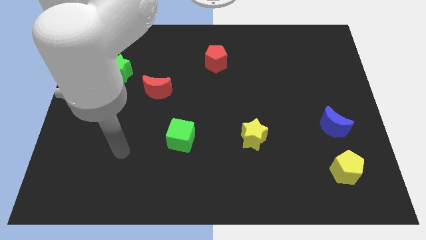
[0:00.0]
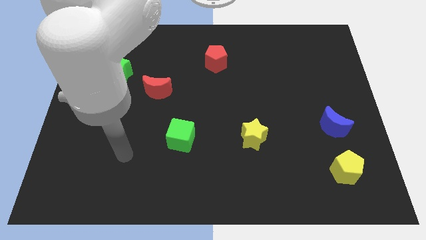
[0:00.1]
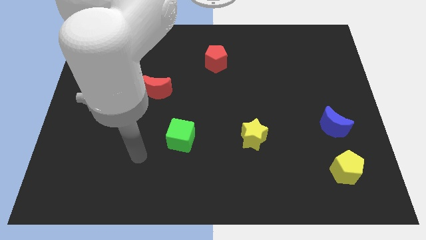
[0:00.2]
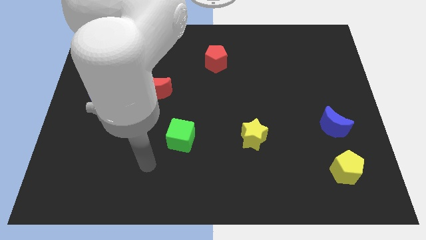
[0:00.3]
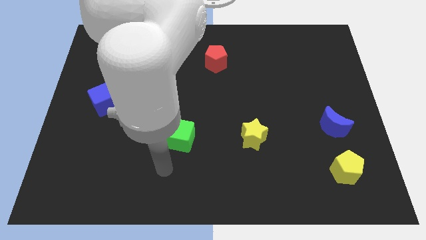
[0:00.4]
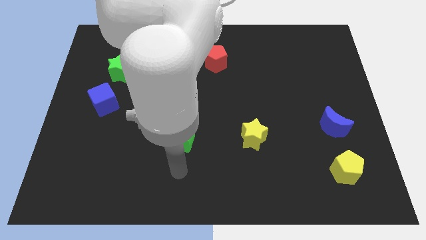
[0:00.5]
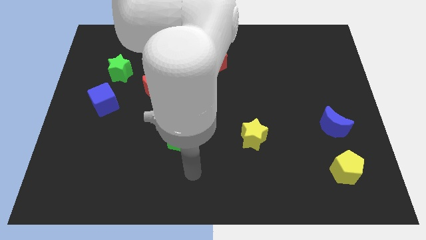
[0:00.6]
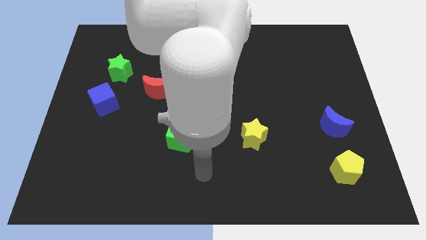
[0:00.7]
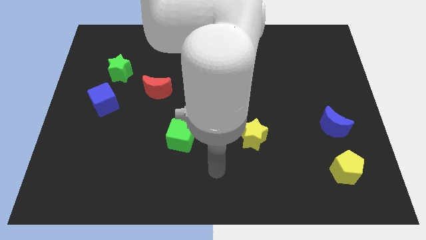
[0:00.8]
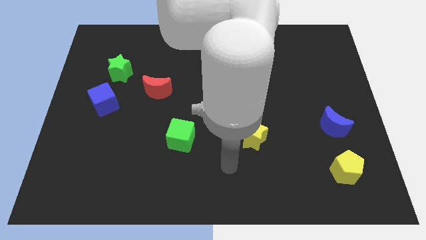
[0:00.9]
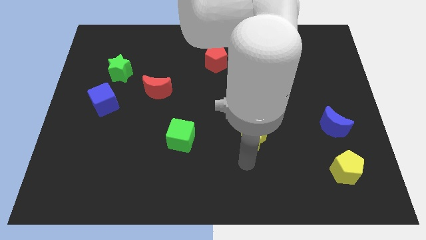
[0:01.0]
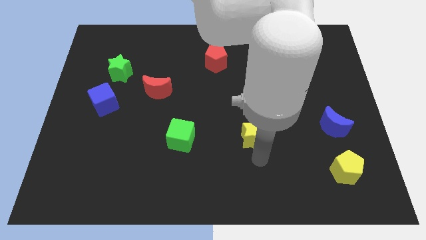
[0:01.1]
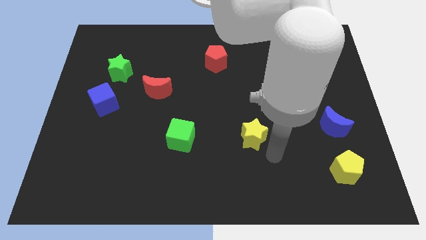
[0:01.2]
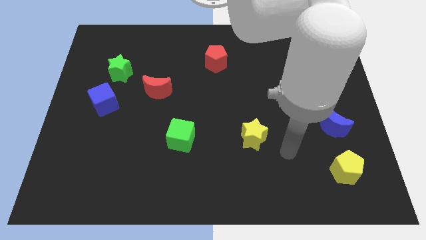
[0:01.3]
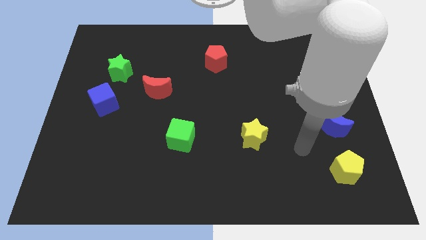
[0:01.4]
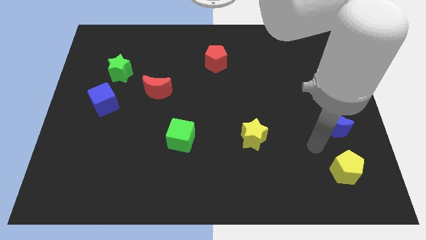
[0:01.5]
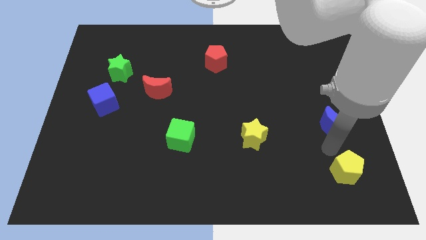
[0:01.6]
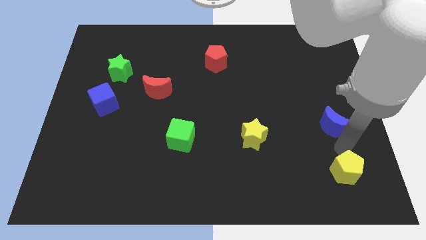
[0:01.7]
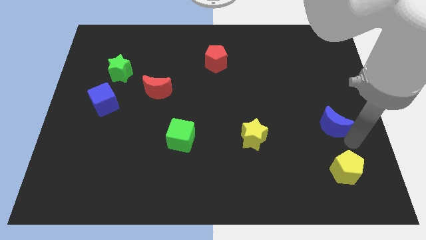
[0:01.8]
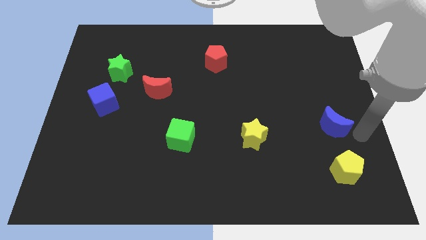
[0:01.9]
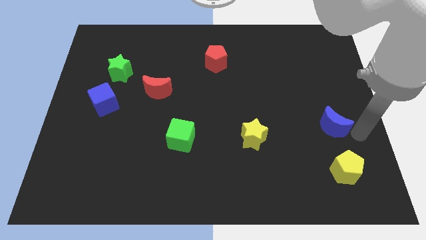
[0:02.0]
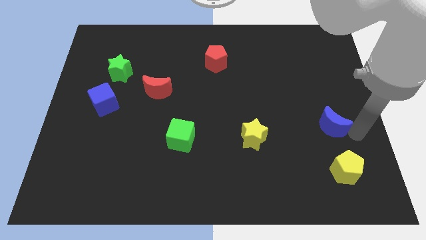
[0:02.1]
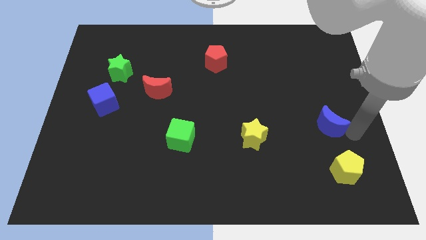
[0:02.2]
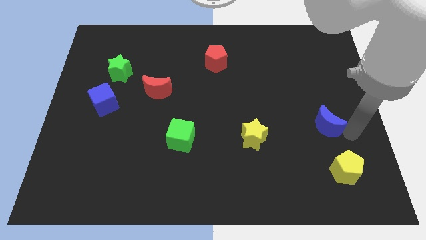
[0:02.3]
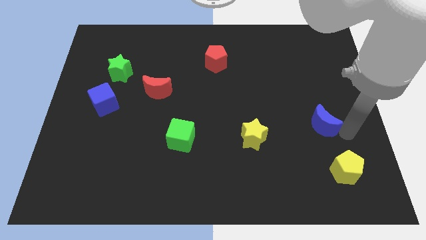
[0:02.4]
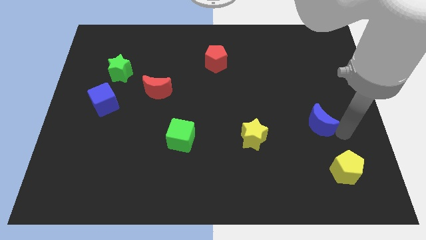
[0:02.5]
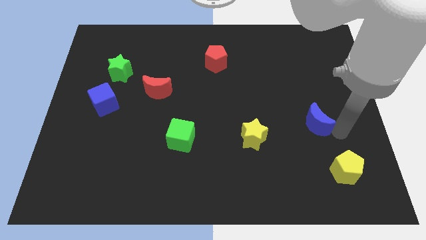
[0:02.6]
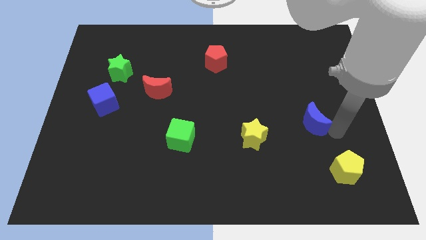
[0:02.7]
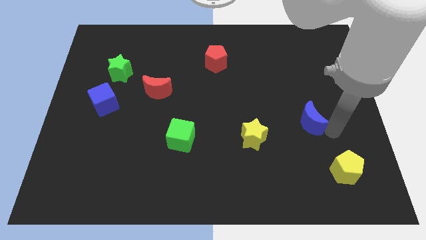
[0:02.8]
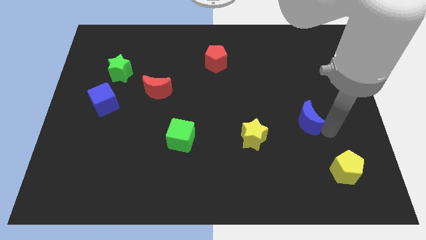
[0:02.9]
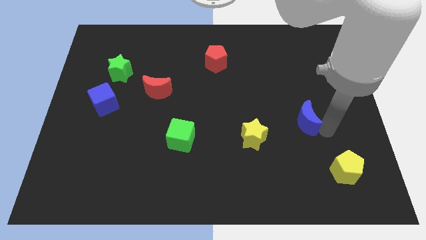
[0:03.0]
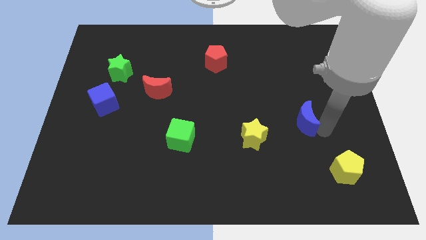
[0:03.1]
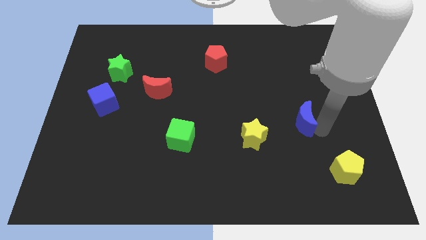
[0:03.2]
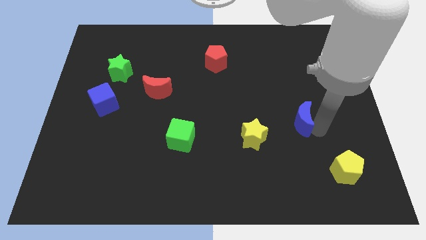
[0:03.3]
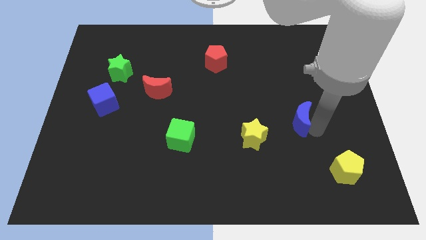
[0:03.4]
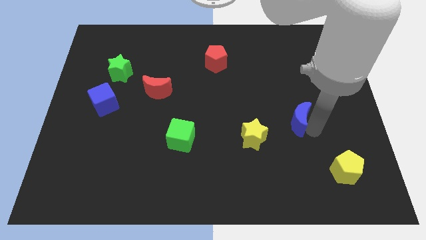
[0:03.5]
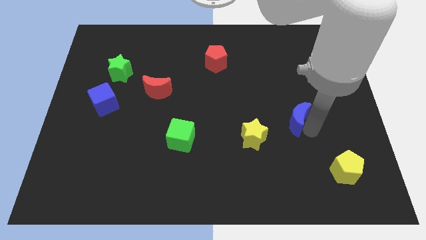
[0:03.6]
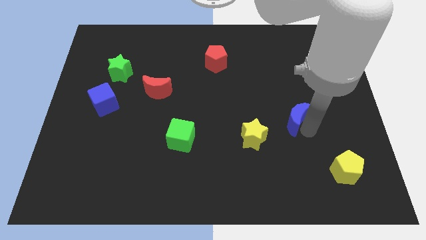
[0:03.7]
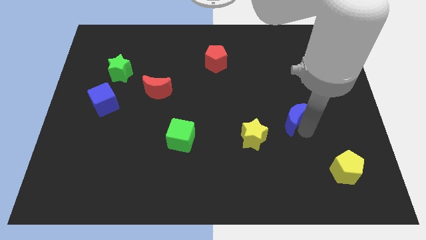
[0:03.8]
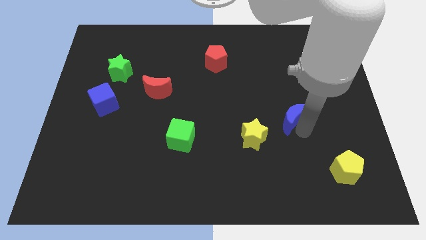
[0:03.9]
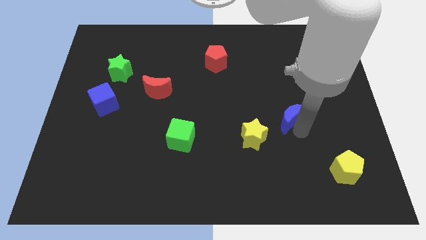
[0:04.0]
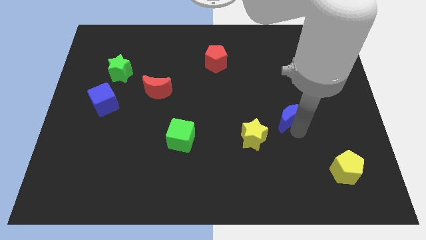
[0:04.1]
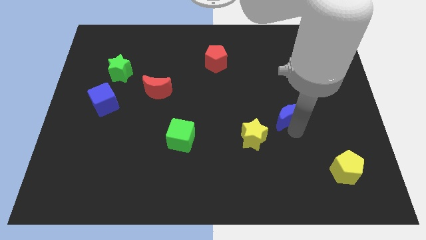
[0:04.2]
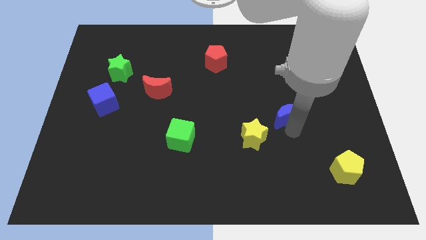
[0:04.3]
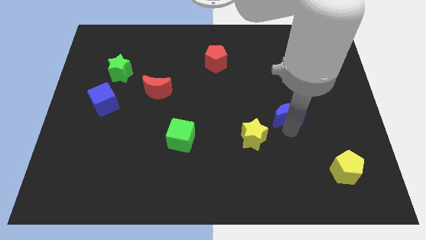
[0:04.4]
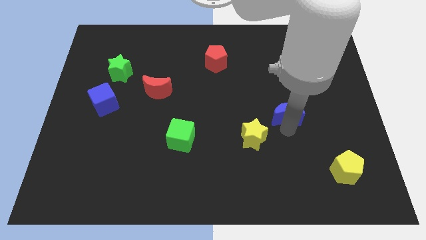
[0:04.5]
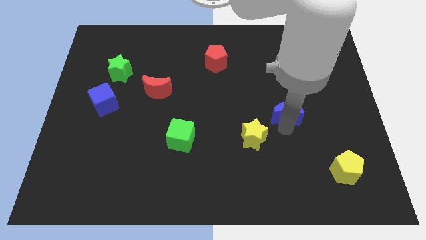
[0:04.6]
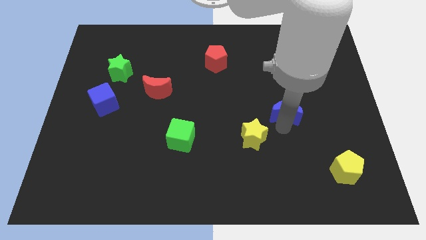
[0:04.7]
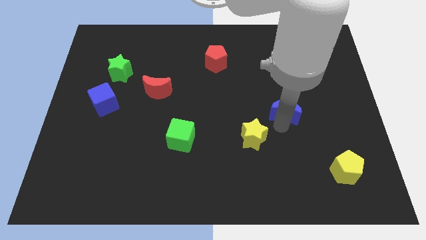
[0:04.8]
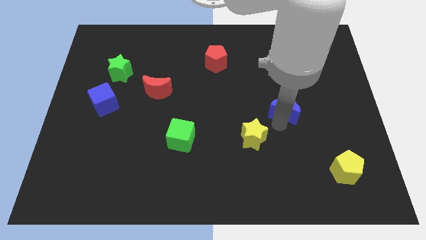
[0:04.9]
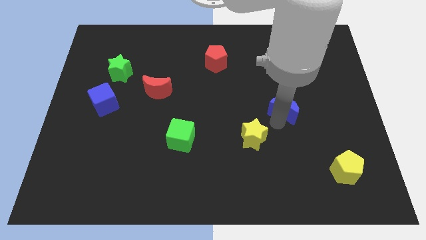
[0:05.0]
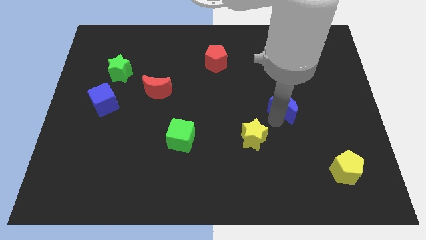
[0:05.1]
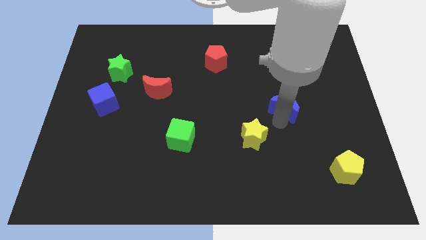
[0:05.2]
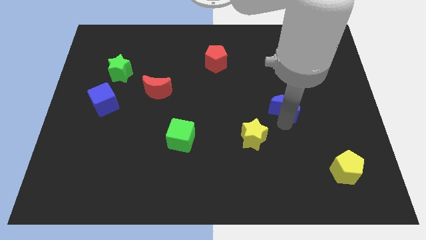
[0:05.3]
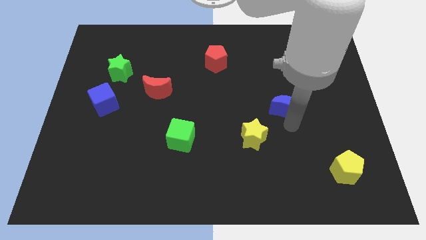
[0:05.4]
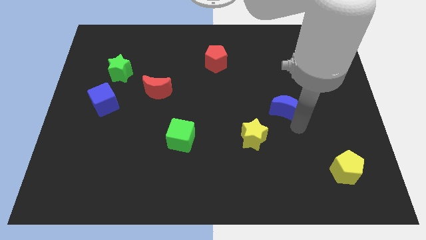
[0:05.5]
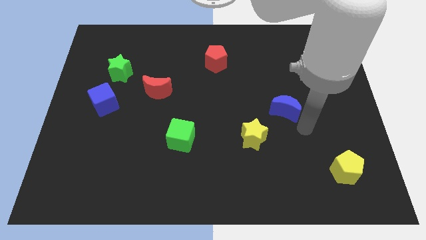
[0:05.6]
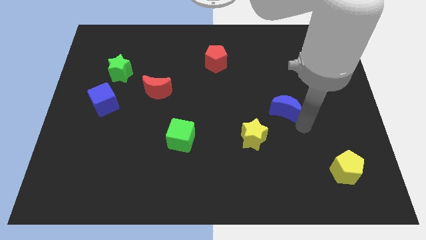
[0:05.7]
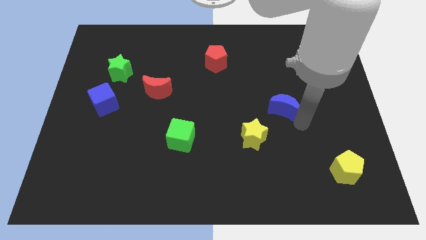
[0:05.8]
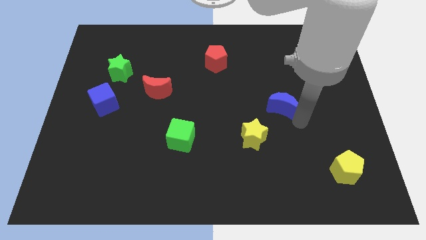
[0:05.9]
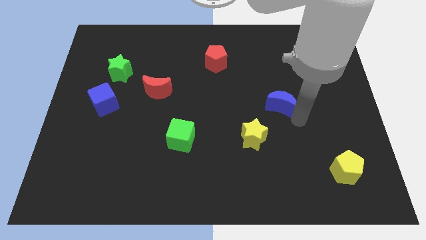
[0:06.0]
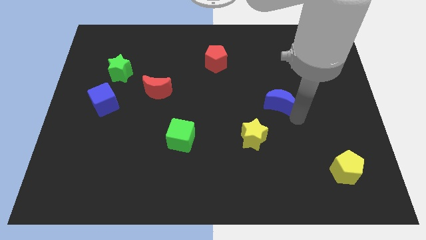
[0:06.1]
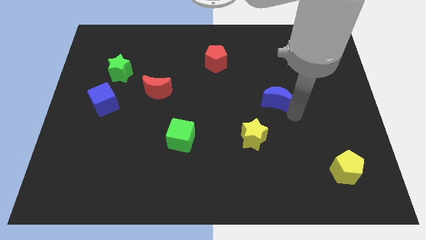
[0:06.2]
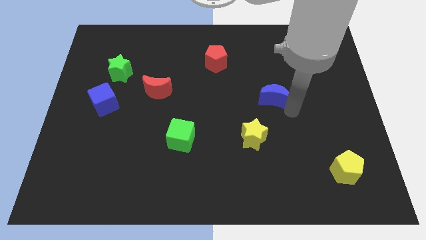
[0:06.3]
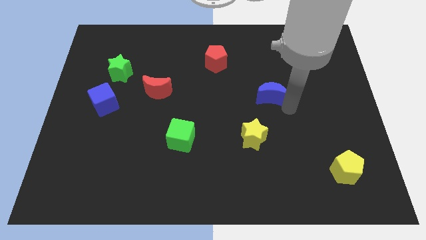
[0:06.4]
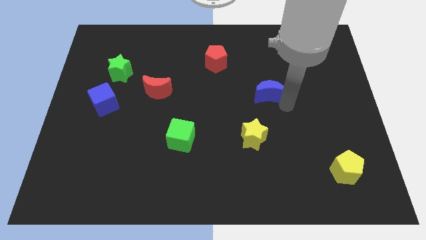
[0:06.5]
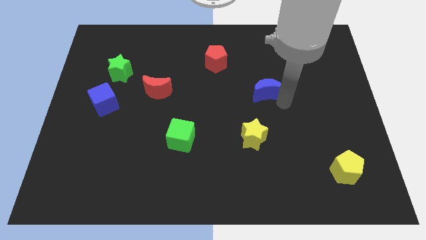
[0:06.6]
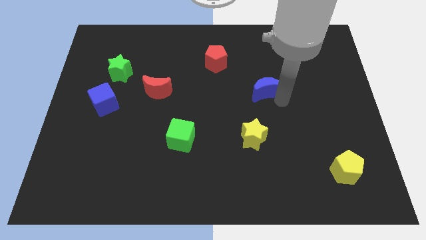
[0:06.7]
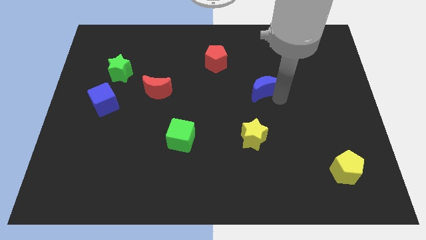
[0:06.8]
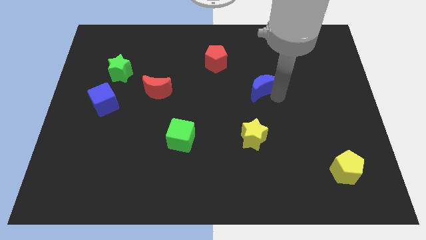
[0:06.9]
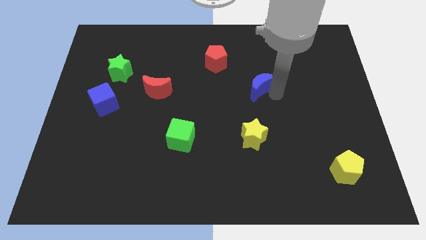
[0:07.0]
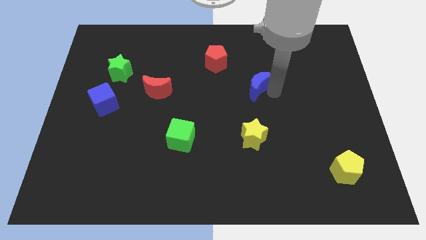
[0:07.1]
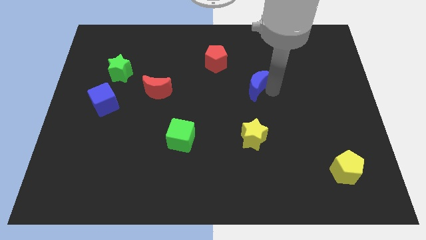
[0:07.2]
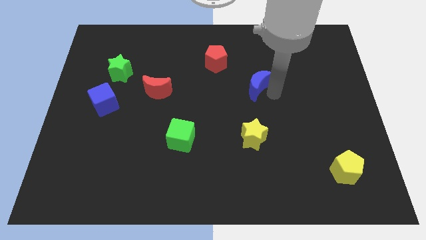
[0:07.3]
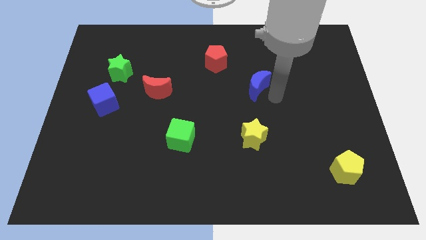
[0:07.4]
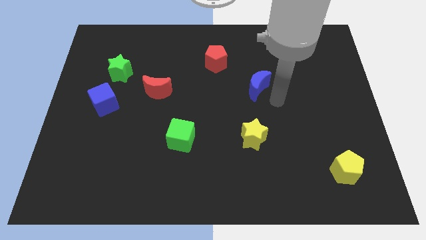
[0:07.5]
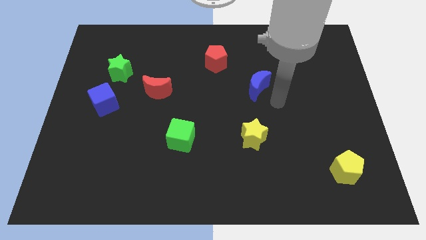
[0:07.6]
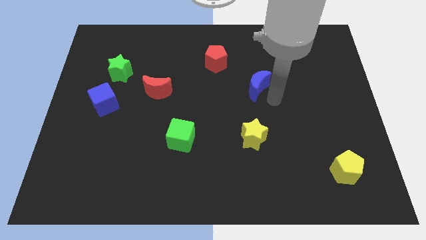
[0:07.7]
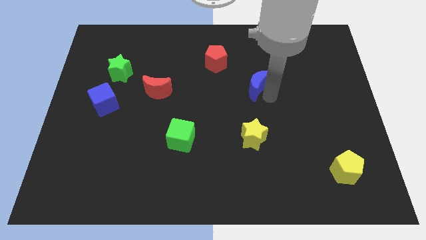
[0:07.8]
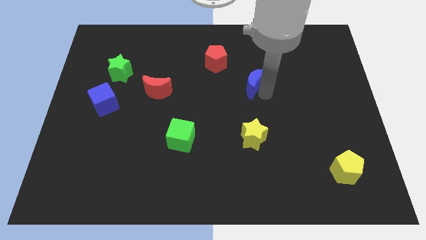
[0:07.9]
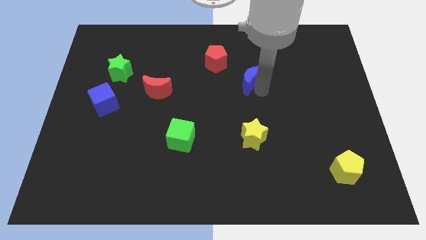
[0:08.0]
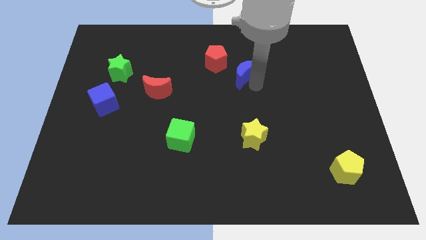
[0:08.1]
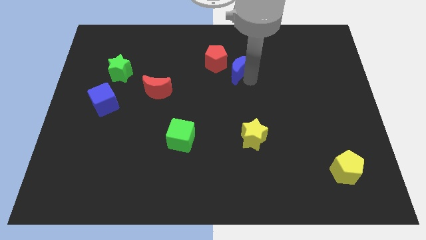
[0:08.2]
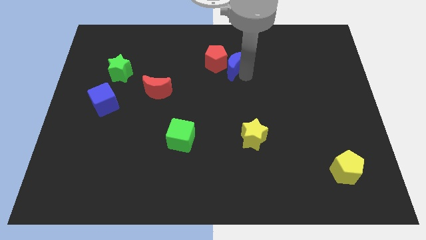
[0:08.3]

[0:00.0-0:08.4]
move the blue moon to the red pentagon
